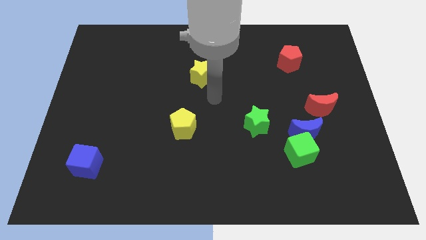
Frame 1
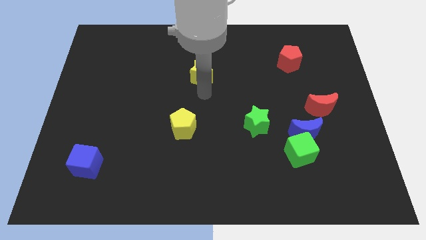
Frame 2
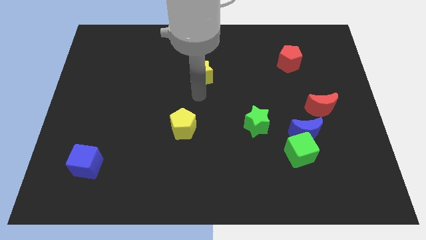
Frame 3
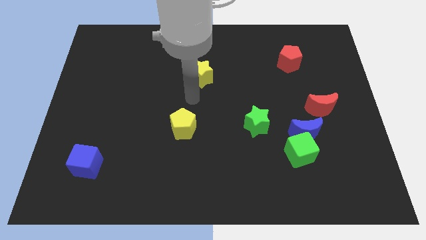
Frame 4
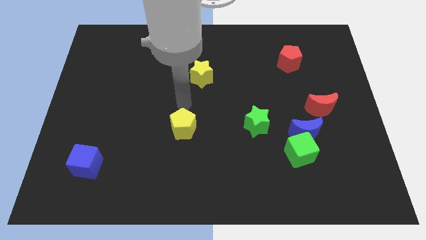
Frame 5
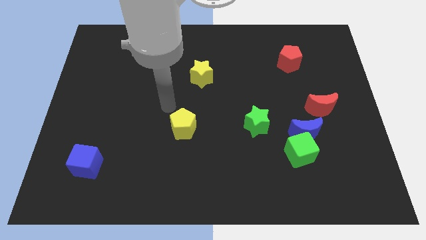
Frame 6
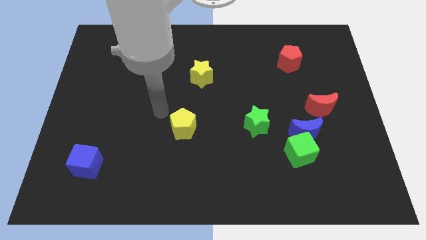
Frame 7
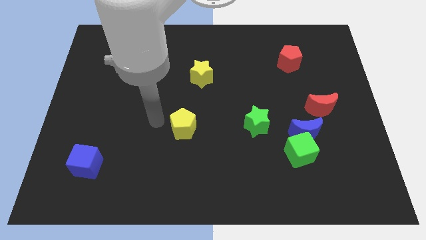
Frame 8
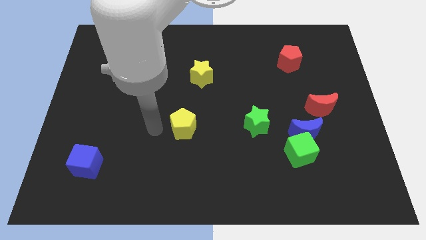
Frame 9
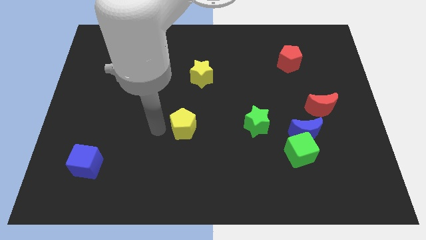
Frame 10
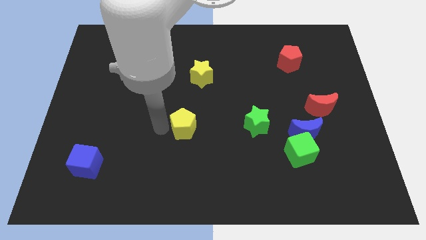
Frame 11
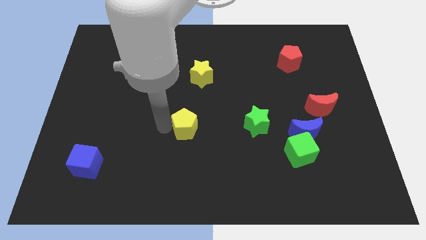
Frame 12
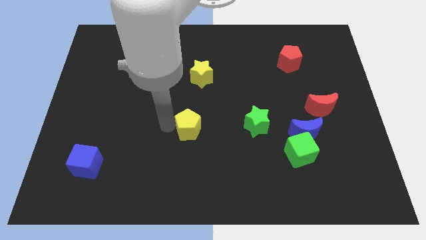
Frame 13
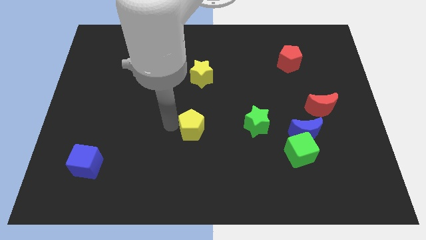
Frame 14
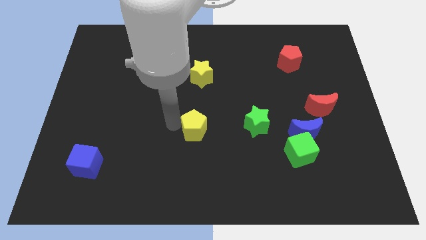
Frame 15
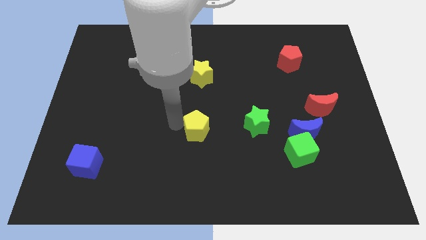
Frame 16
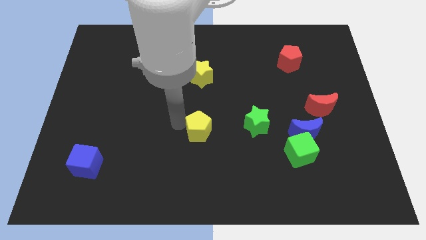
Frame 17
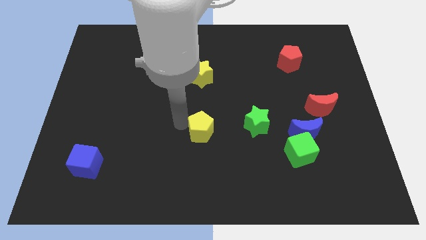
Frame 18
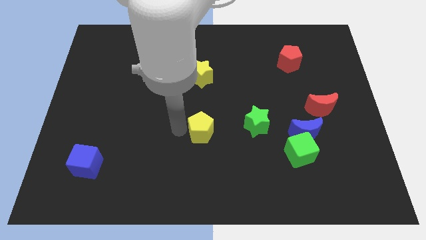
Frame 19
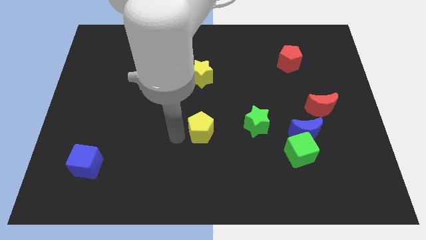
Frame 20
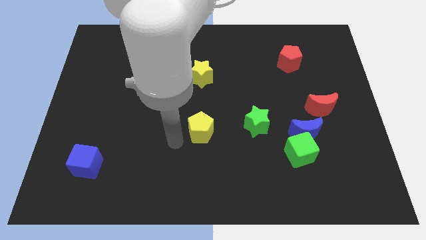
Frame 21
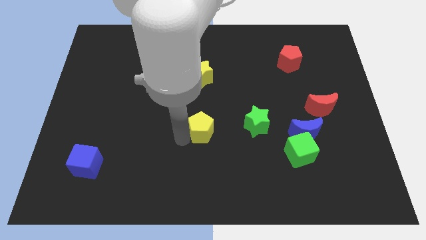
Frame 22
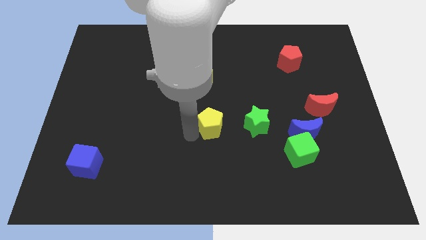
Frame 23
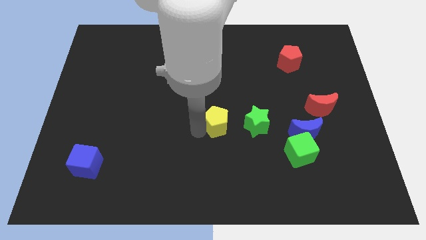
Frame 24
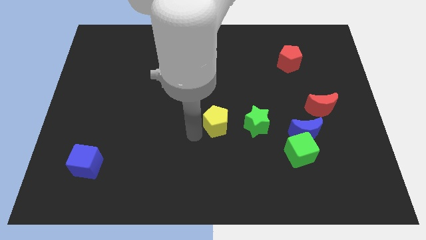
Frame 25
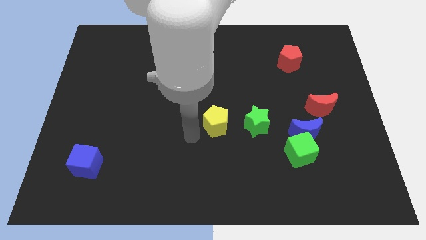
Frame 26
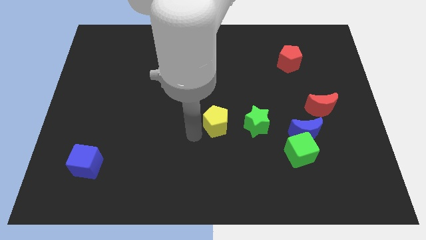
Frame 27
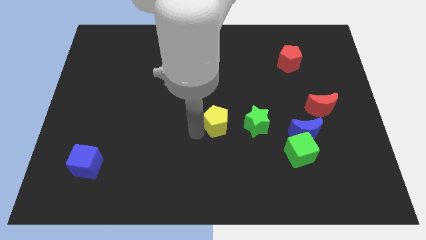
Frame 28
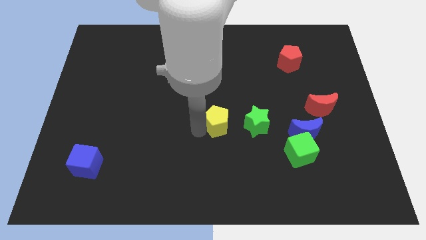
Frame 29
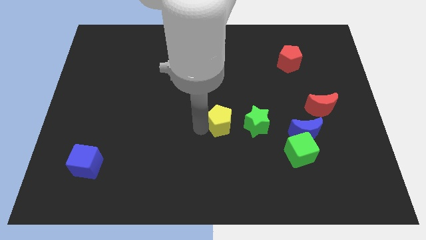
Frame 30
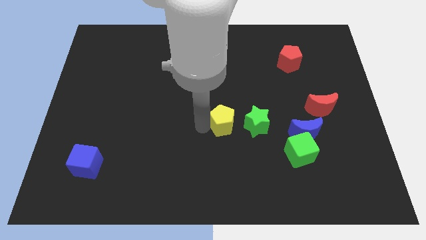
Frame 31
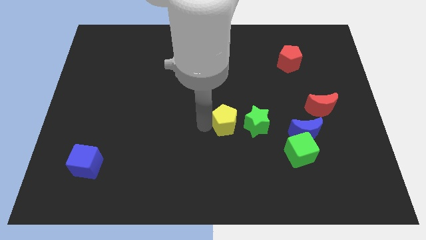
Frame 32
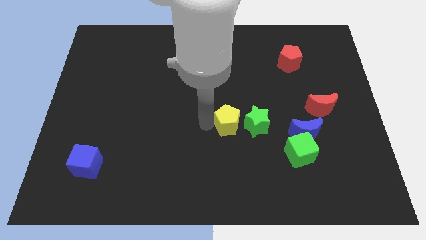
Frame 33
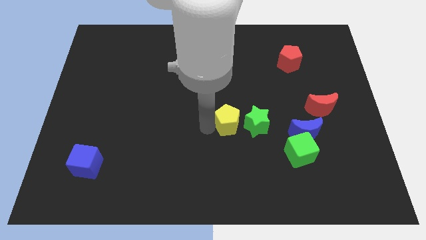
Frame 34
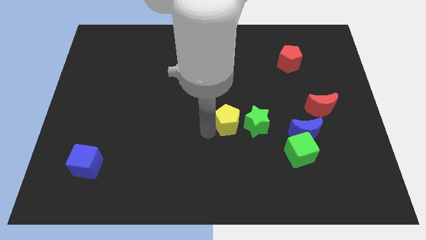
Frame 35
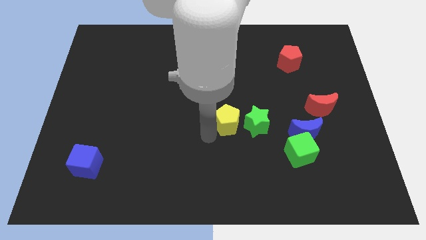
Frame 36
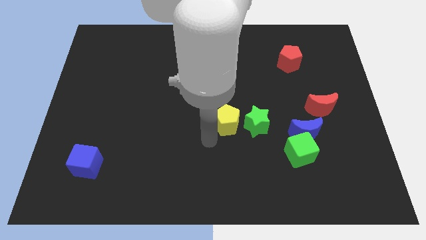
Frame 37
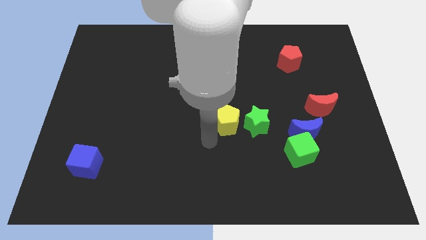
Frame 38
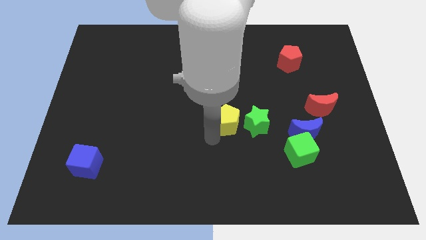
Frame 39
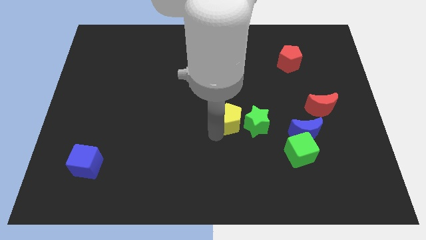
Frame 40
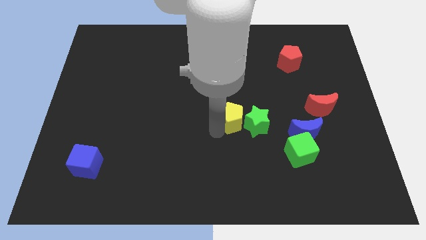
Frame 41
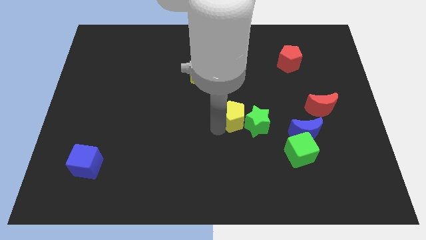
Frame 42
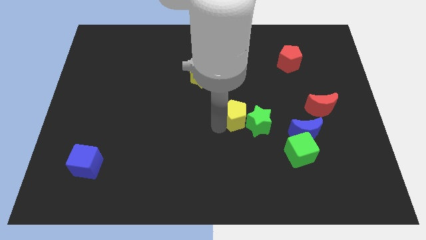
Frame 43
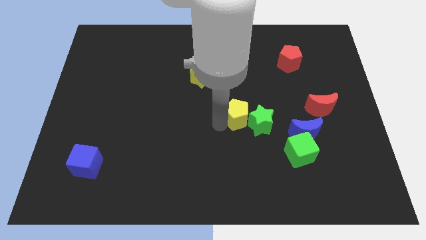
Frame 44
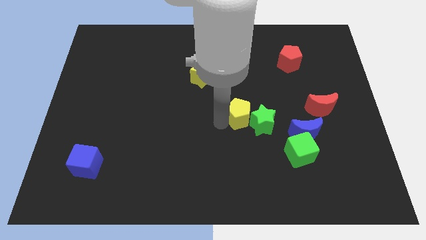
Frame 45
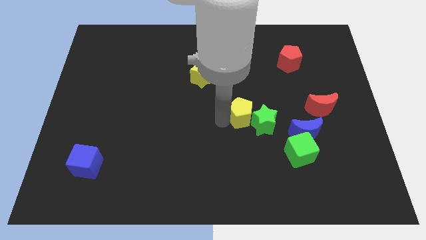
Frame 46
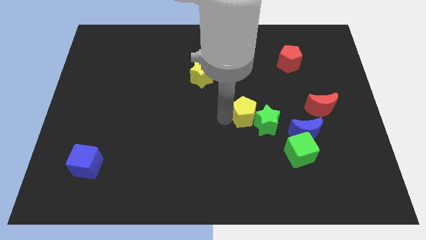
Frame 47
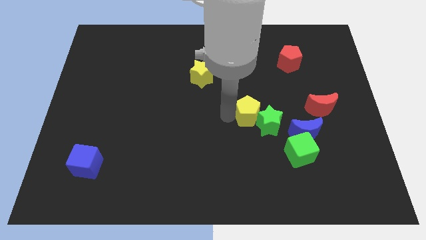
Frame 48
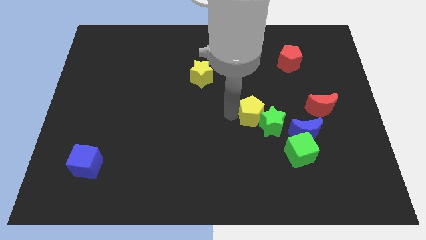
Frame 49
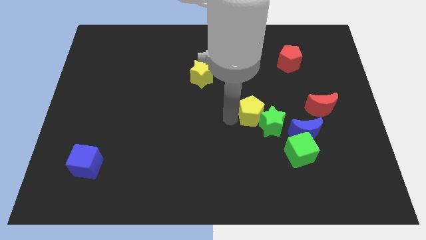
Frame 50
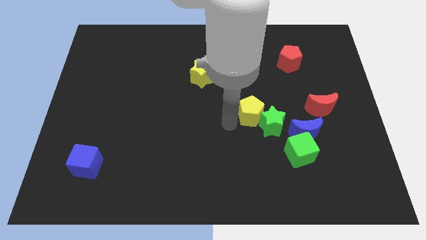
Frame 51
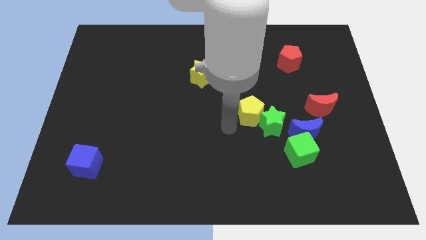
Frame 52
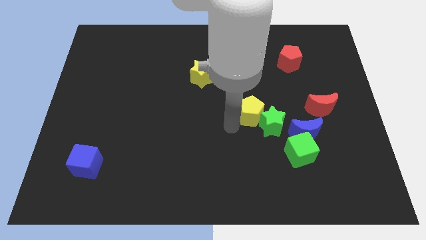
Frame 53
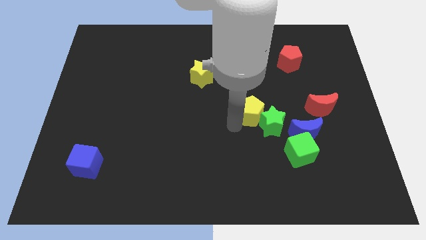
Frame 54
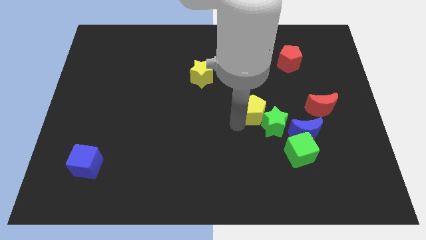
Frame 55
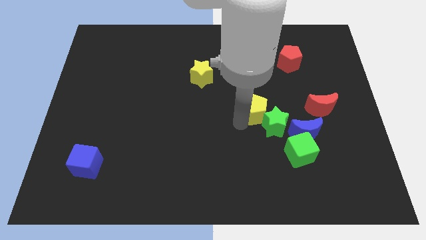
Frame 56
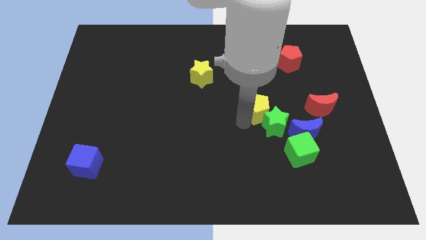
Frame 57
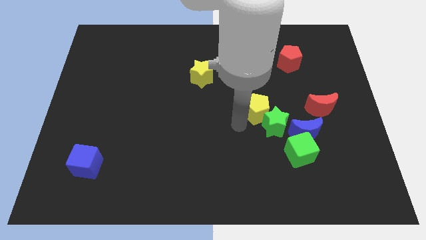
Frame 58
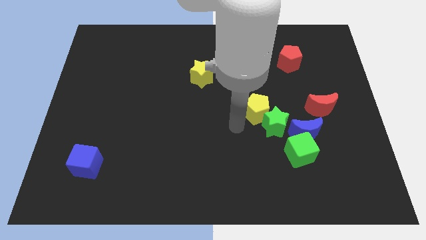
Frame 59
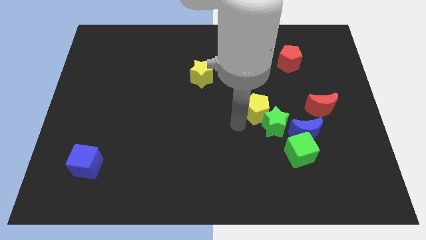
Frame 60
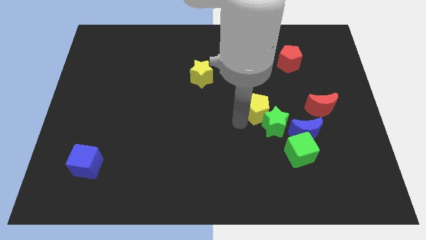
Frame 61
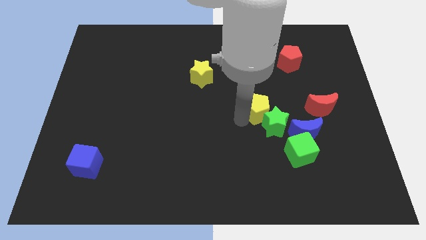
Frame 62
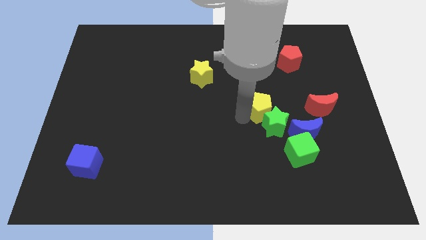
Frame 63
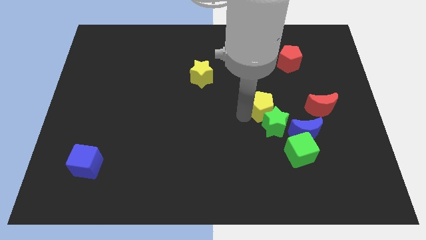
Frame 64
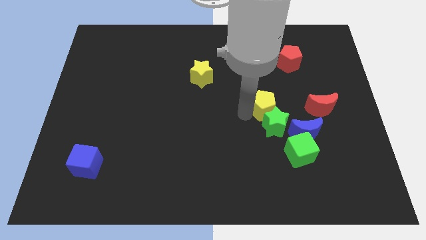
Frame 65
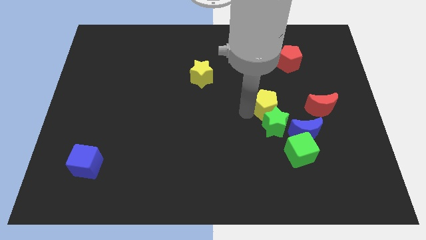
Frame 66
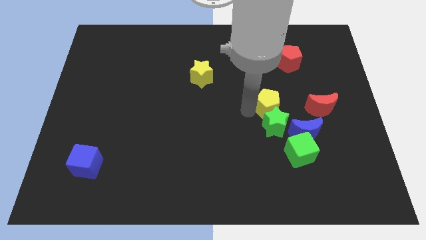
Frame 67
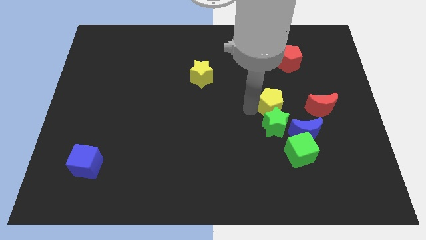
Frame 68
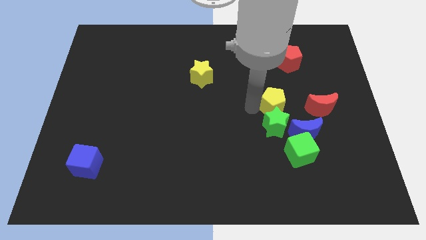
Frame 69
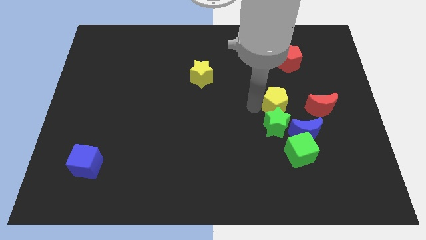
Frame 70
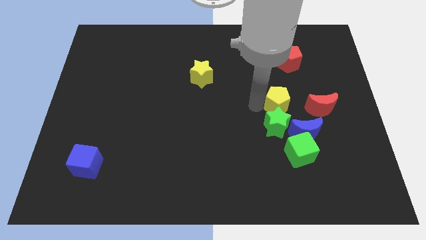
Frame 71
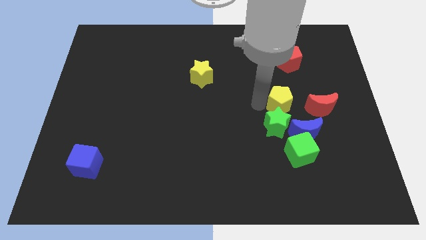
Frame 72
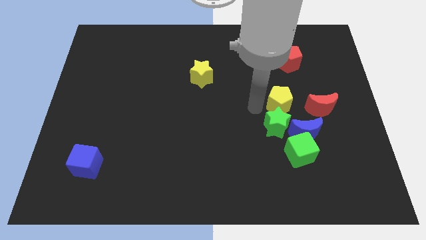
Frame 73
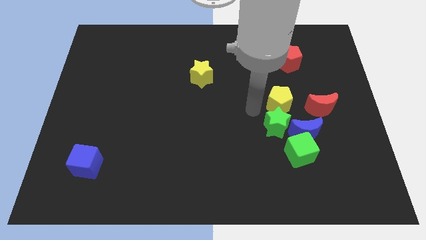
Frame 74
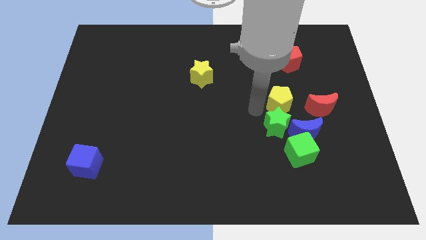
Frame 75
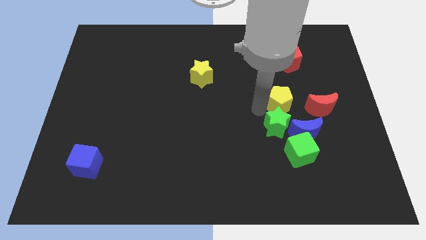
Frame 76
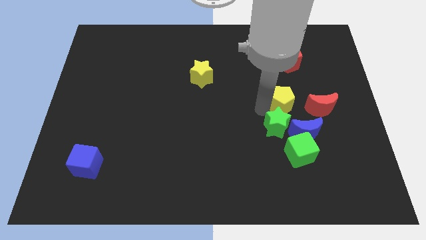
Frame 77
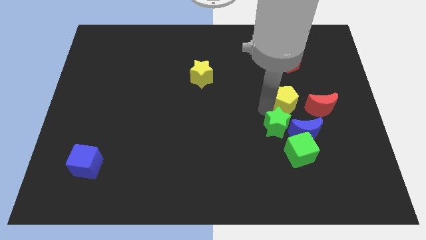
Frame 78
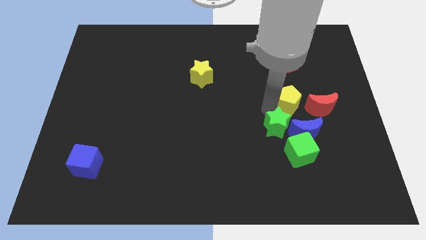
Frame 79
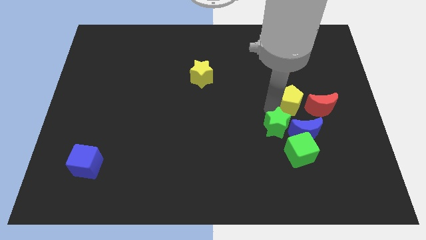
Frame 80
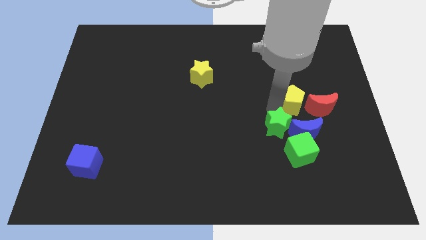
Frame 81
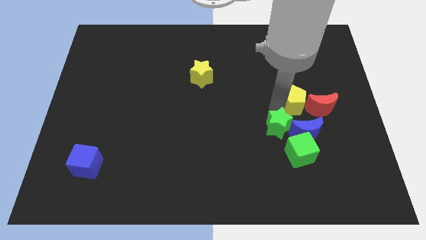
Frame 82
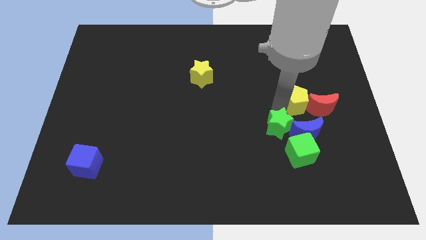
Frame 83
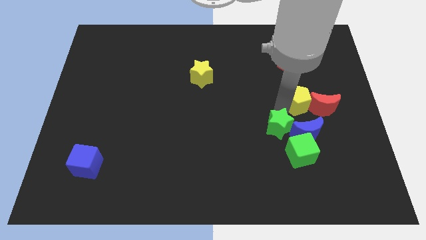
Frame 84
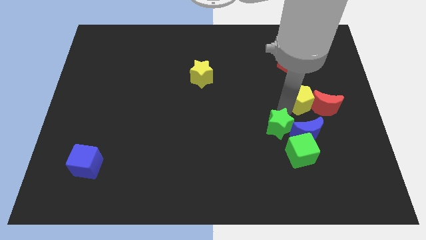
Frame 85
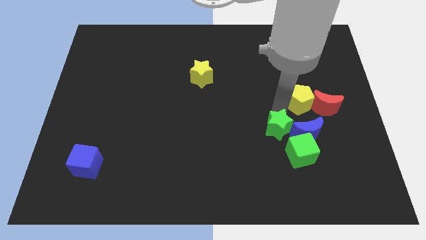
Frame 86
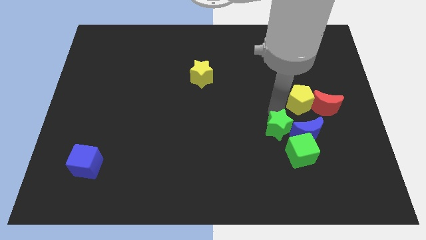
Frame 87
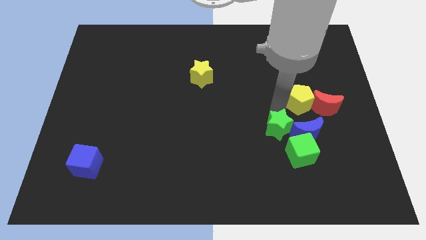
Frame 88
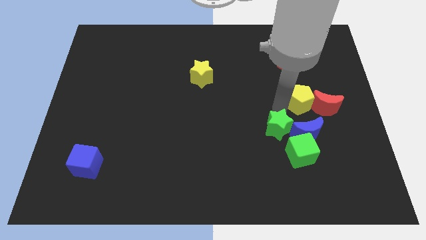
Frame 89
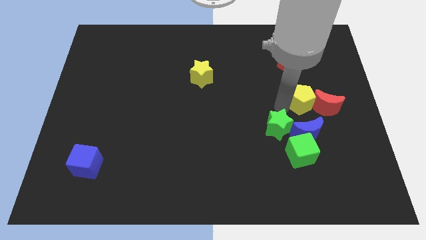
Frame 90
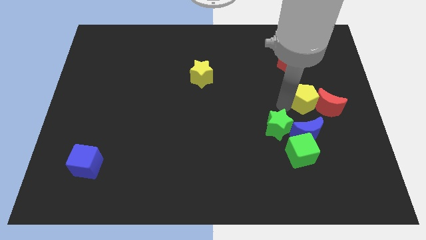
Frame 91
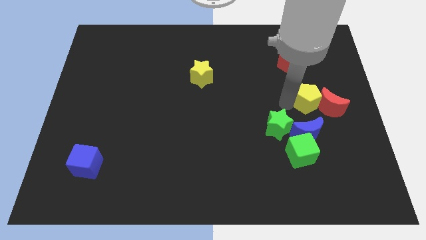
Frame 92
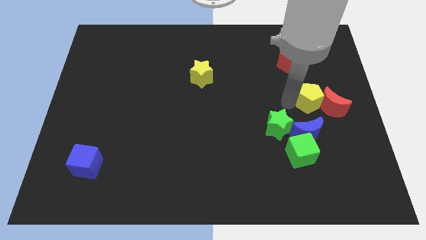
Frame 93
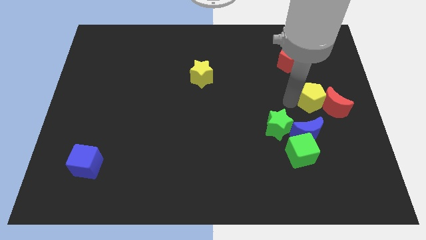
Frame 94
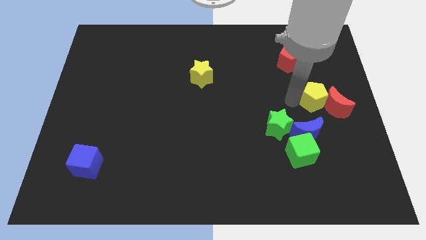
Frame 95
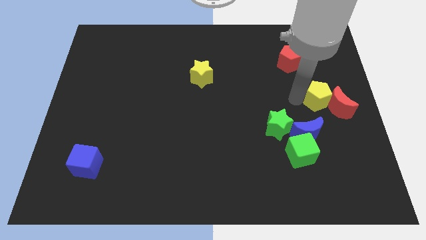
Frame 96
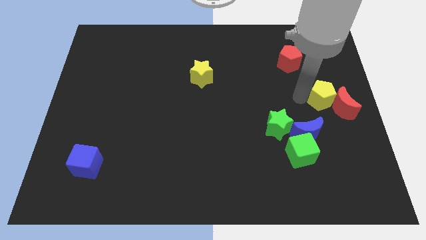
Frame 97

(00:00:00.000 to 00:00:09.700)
push the yellow pentagon to the center right
